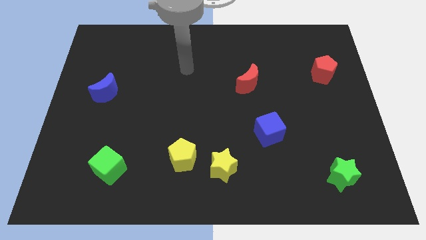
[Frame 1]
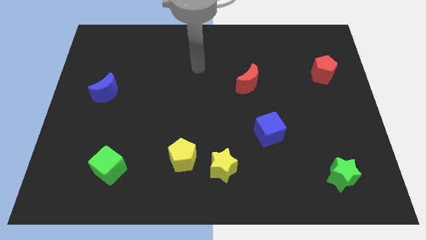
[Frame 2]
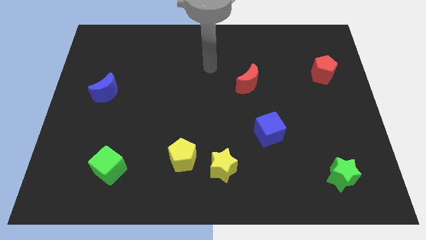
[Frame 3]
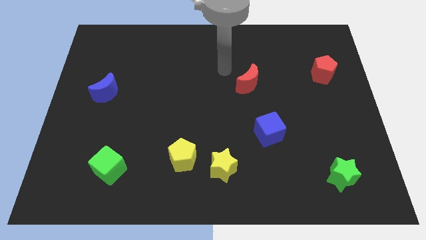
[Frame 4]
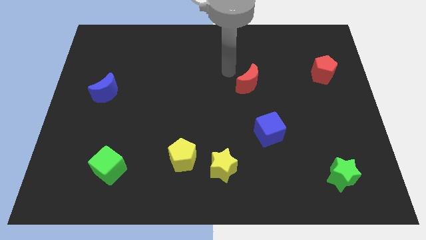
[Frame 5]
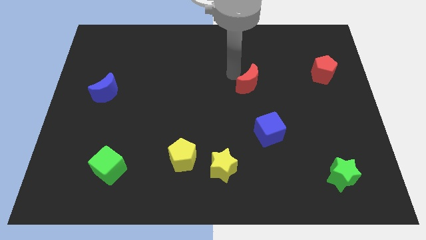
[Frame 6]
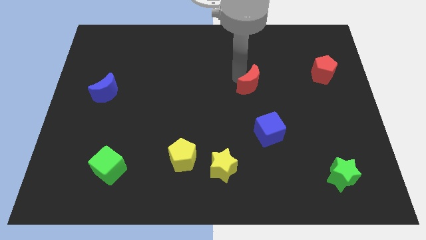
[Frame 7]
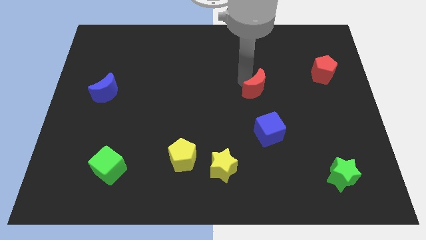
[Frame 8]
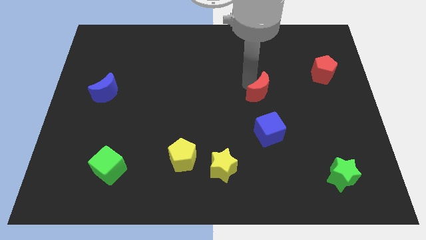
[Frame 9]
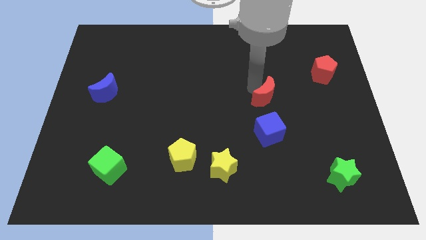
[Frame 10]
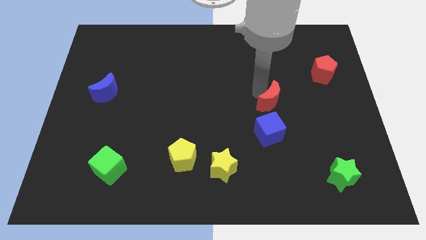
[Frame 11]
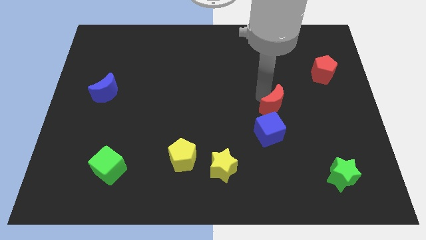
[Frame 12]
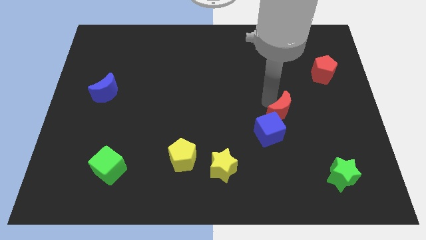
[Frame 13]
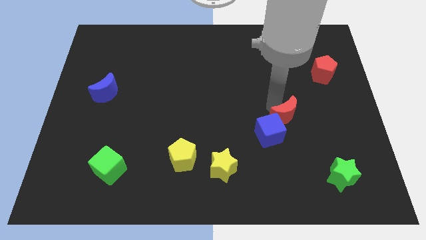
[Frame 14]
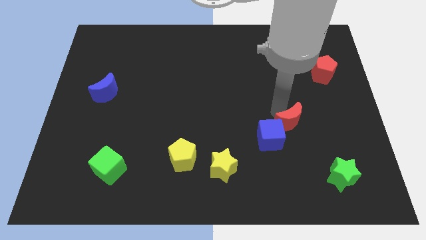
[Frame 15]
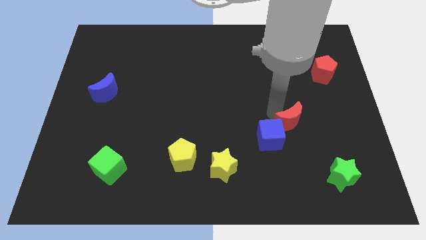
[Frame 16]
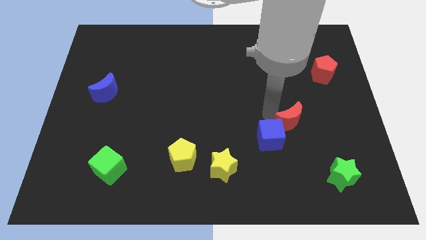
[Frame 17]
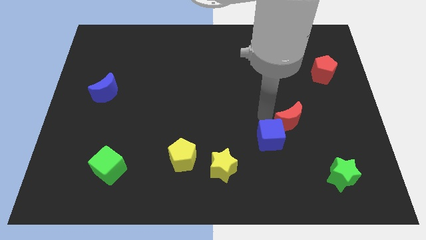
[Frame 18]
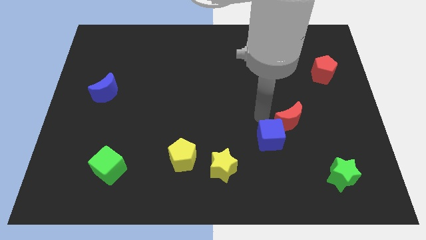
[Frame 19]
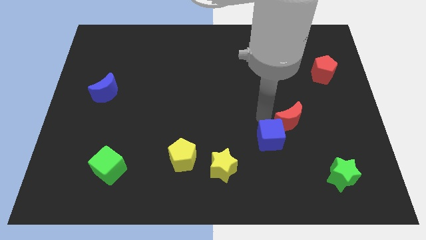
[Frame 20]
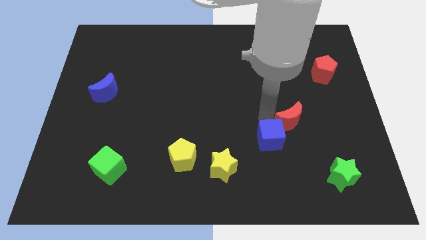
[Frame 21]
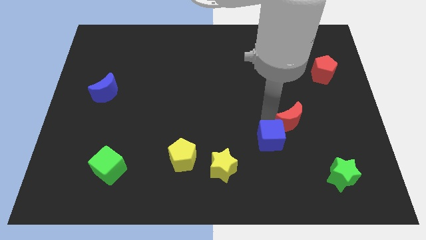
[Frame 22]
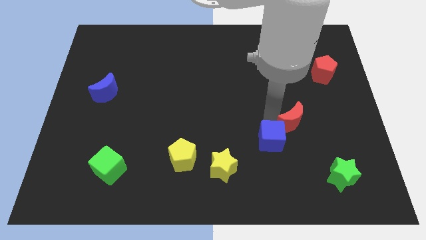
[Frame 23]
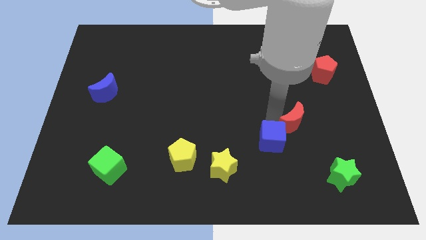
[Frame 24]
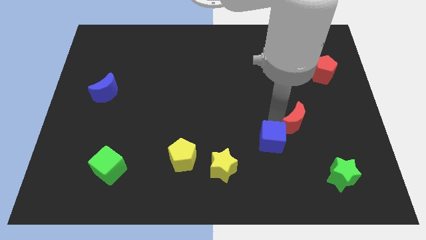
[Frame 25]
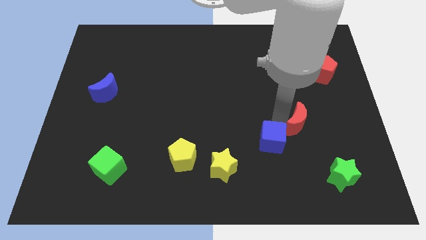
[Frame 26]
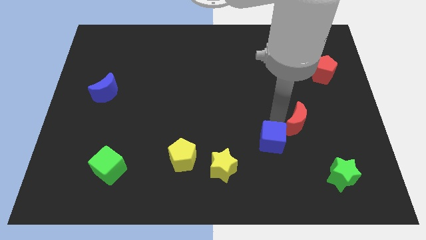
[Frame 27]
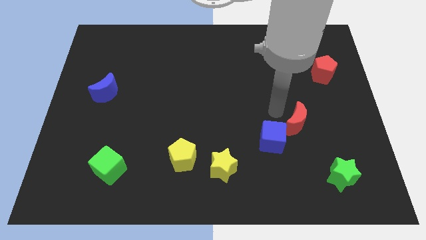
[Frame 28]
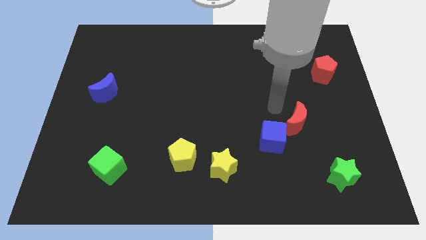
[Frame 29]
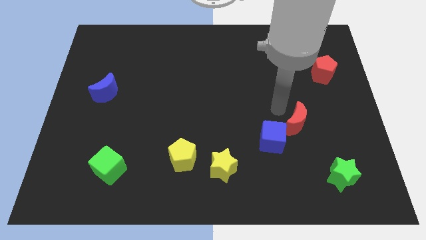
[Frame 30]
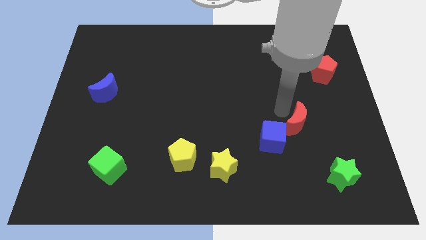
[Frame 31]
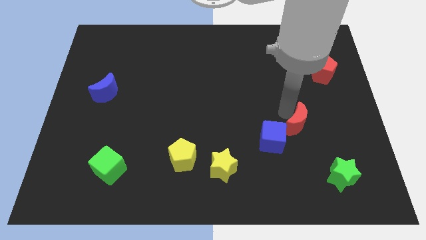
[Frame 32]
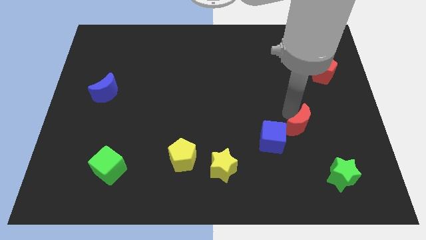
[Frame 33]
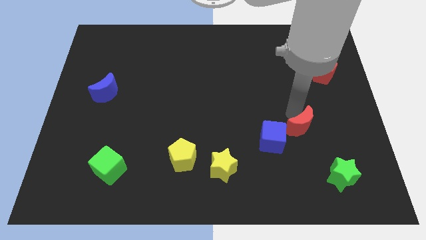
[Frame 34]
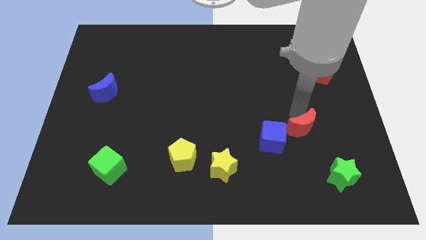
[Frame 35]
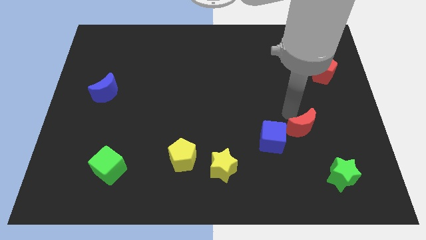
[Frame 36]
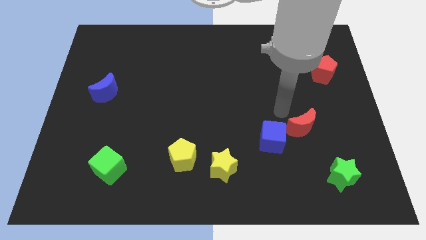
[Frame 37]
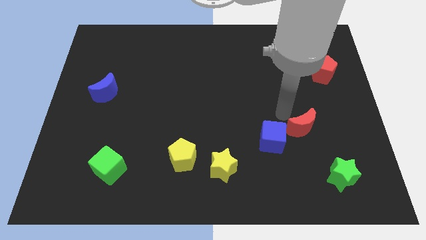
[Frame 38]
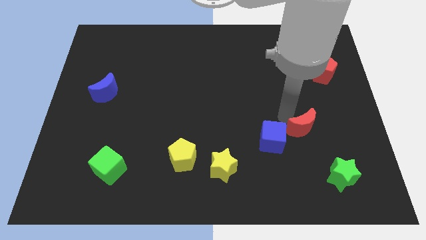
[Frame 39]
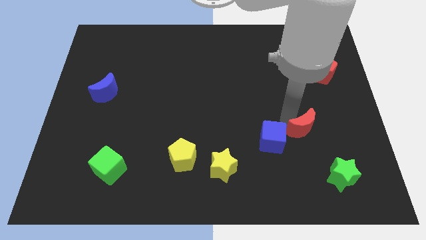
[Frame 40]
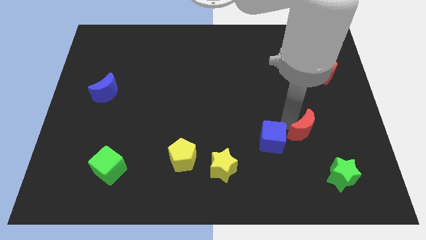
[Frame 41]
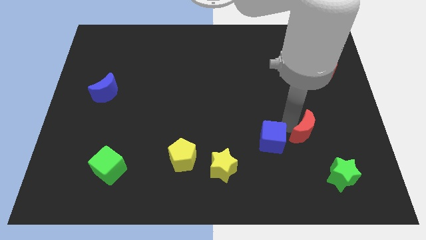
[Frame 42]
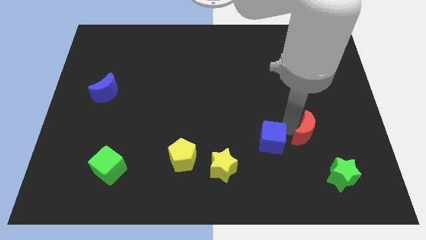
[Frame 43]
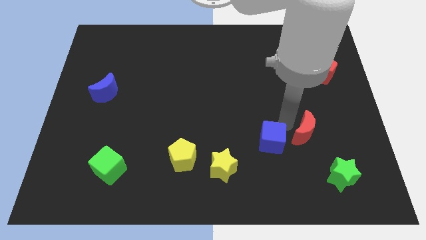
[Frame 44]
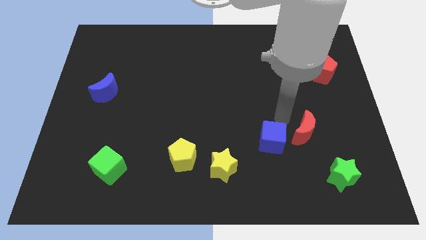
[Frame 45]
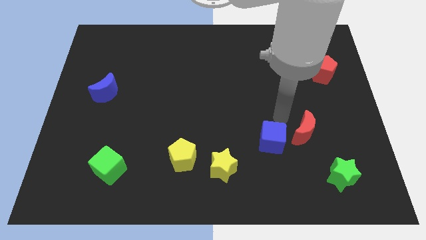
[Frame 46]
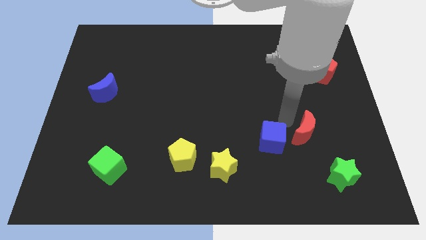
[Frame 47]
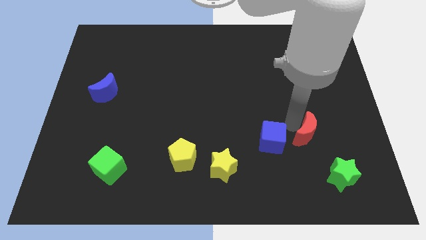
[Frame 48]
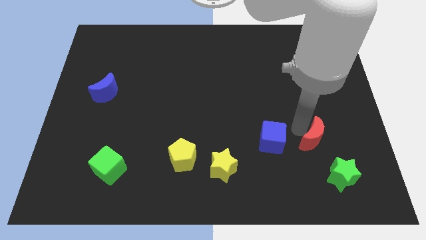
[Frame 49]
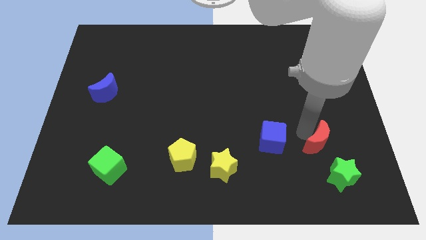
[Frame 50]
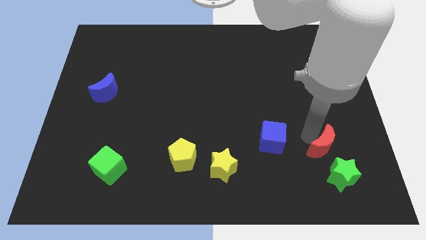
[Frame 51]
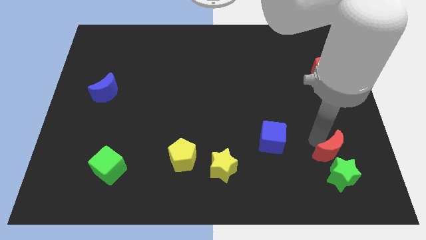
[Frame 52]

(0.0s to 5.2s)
push the red moon next to the green star

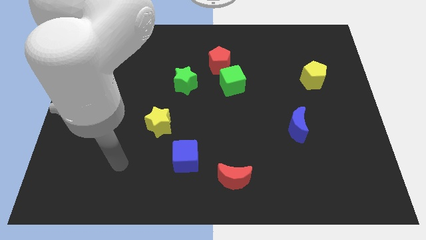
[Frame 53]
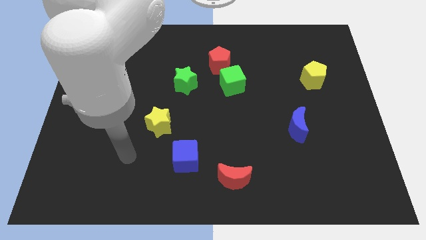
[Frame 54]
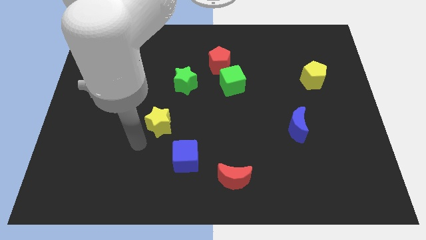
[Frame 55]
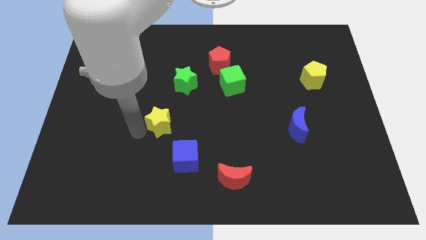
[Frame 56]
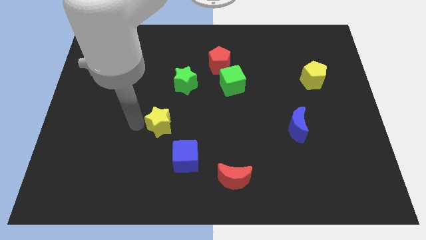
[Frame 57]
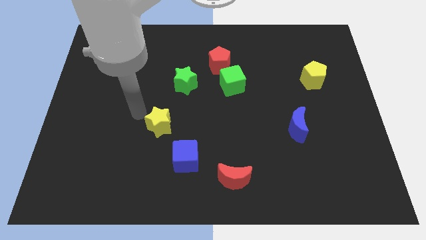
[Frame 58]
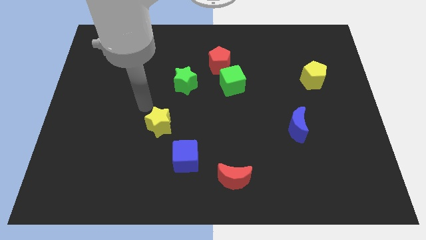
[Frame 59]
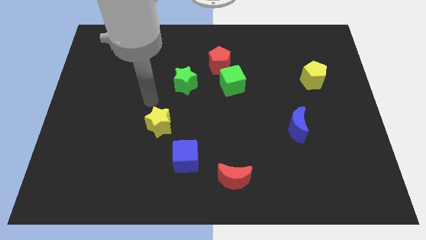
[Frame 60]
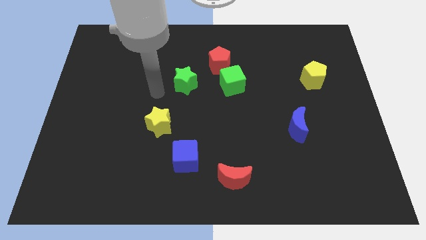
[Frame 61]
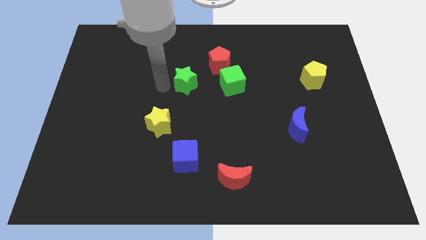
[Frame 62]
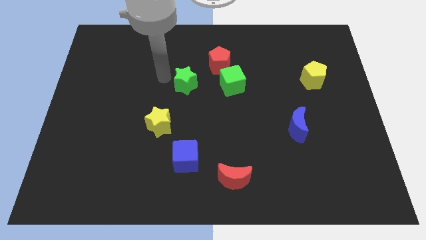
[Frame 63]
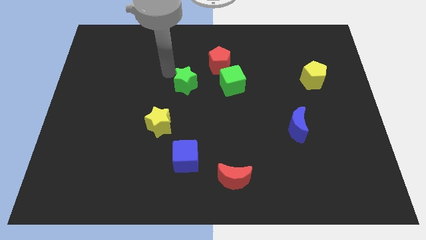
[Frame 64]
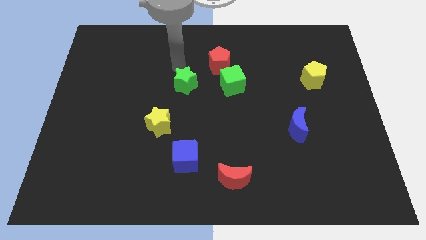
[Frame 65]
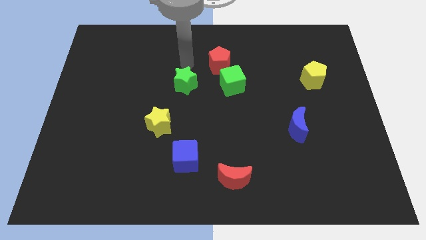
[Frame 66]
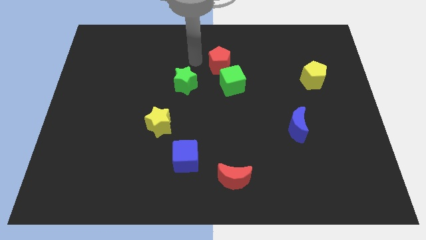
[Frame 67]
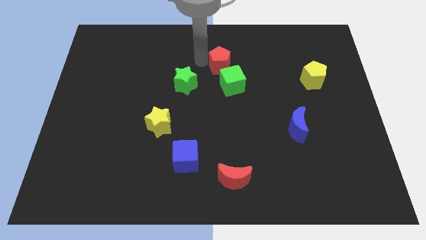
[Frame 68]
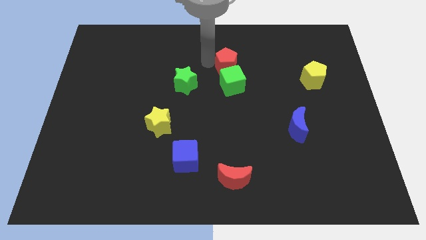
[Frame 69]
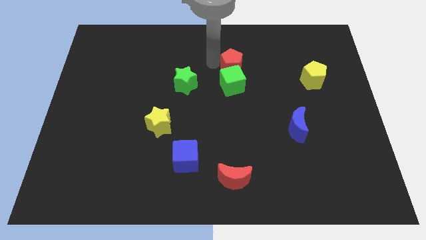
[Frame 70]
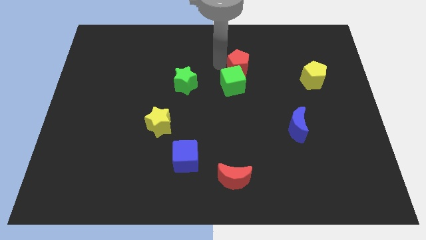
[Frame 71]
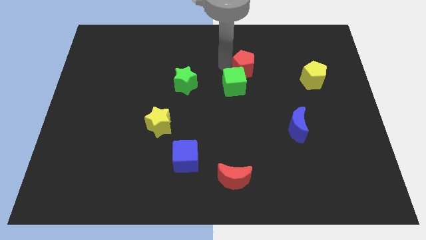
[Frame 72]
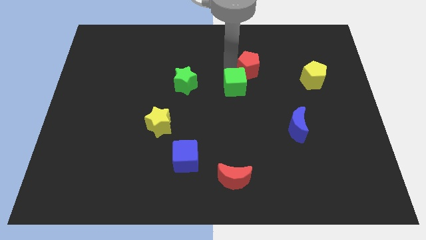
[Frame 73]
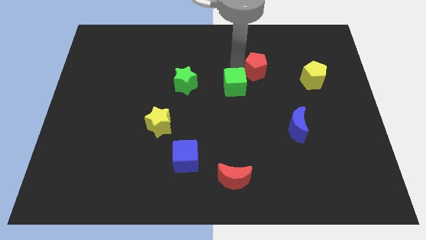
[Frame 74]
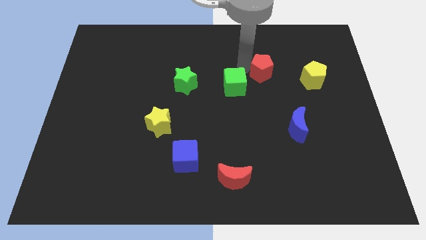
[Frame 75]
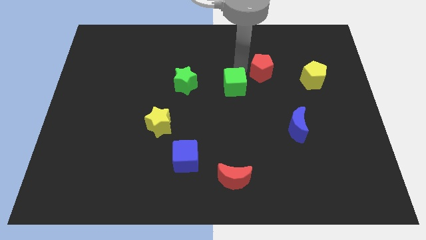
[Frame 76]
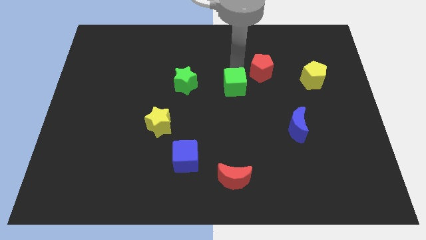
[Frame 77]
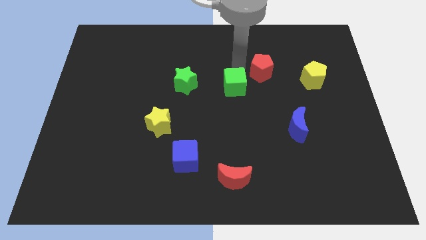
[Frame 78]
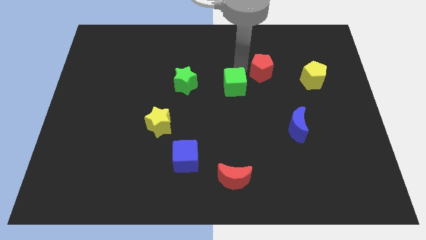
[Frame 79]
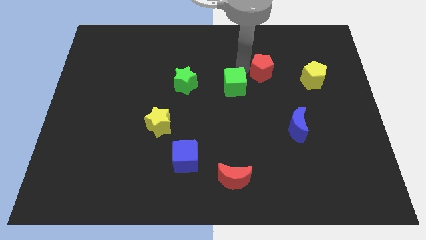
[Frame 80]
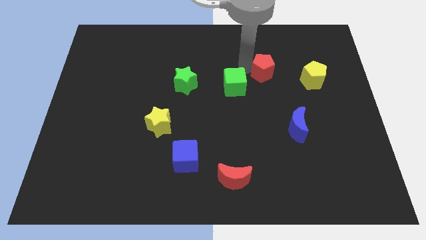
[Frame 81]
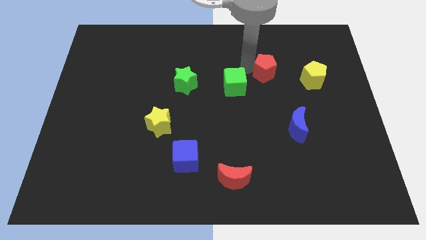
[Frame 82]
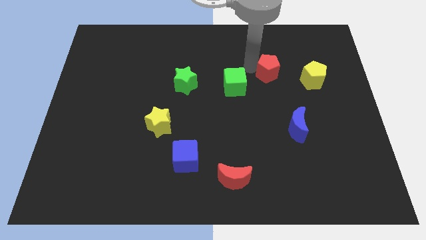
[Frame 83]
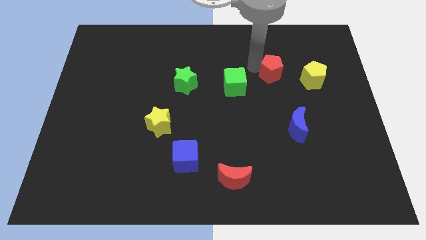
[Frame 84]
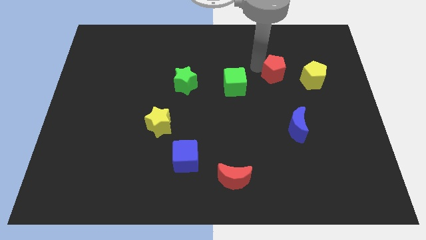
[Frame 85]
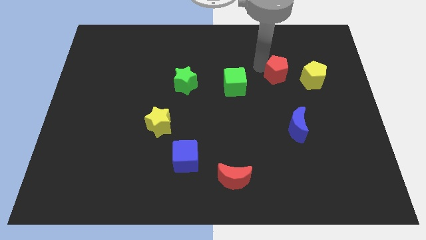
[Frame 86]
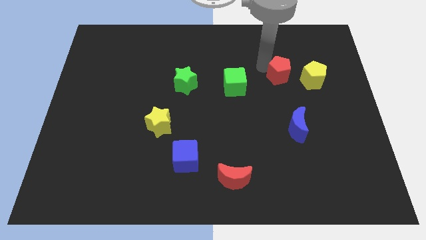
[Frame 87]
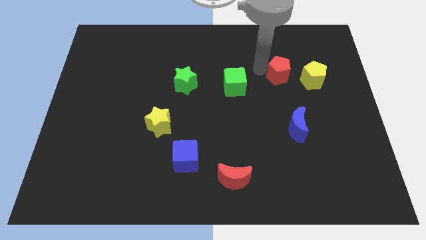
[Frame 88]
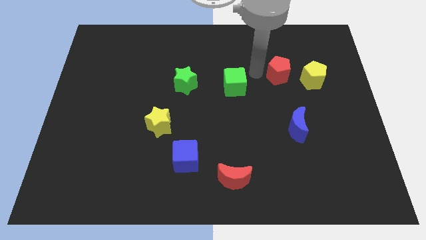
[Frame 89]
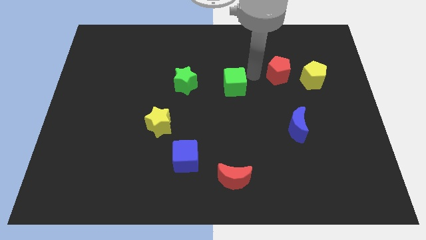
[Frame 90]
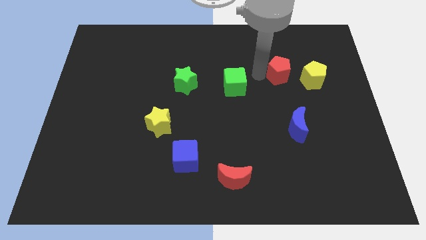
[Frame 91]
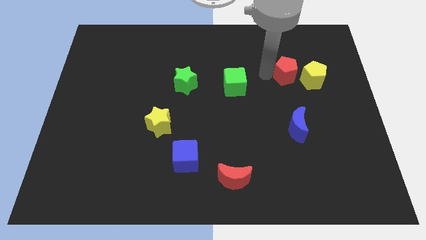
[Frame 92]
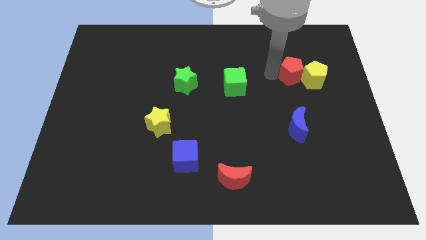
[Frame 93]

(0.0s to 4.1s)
put the red pentagon next to the yellow pentagon
